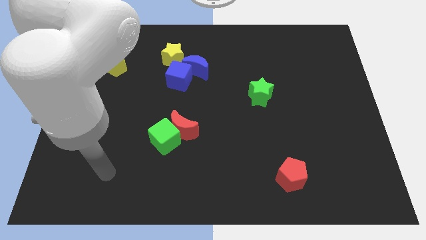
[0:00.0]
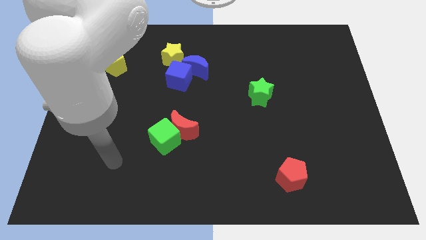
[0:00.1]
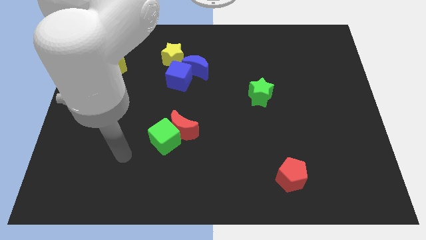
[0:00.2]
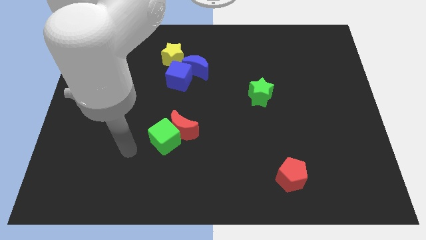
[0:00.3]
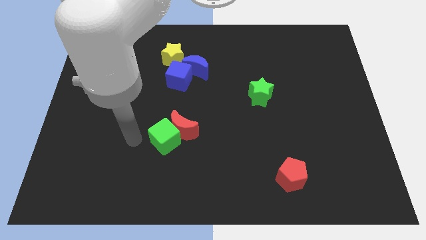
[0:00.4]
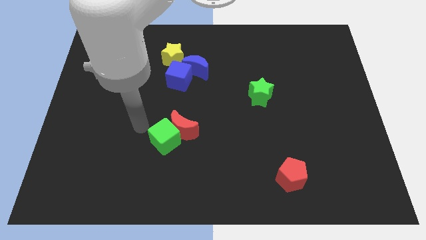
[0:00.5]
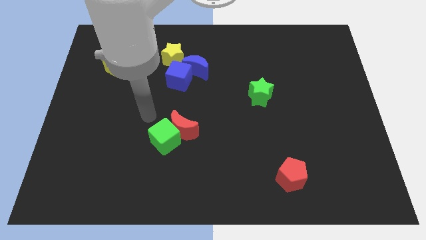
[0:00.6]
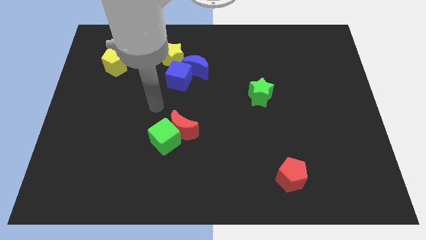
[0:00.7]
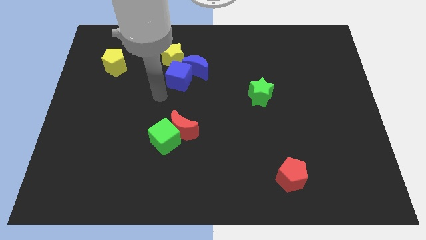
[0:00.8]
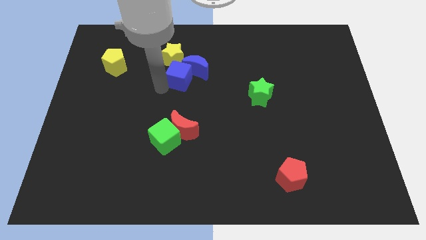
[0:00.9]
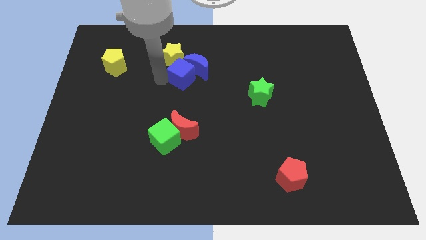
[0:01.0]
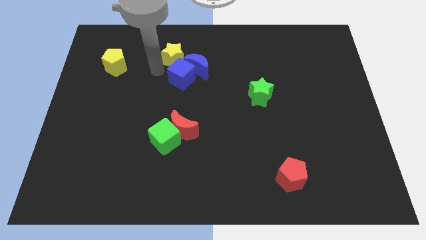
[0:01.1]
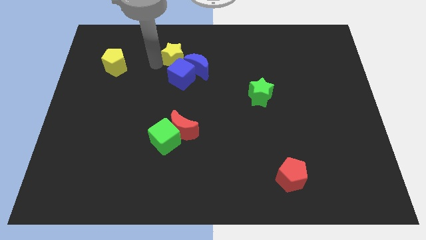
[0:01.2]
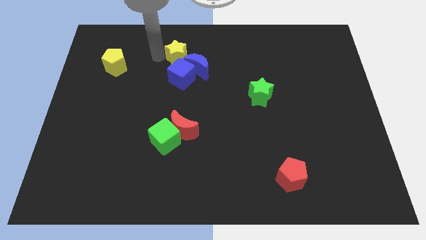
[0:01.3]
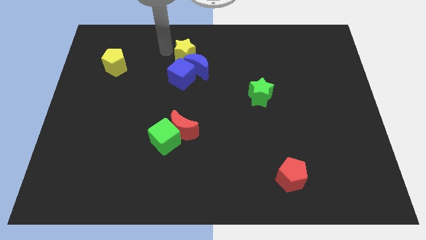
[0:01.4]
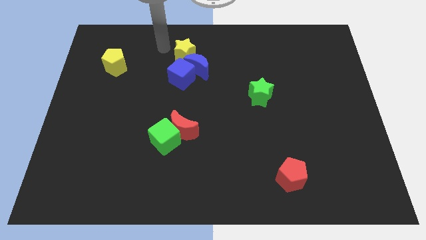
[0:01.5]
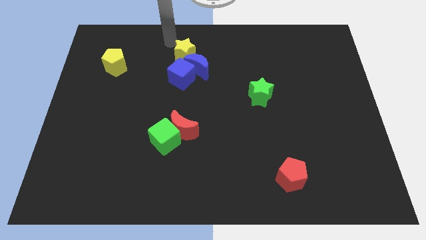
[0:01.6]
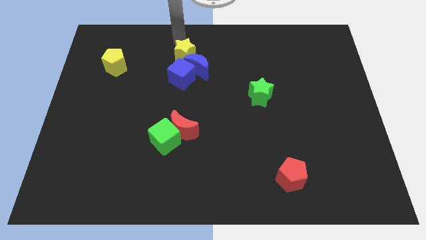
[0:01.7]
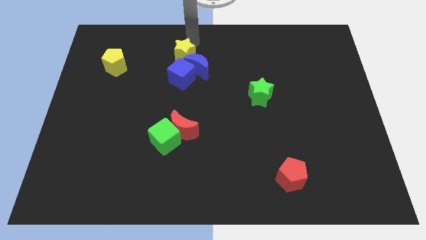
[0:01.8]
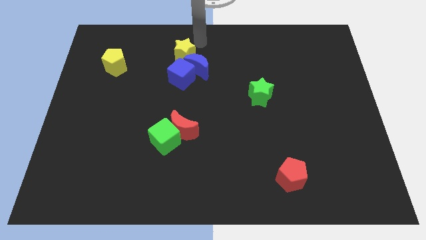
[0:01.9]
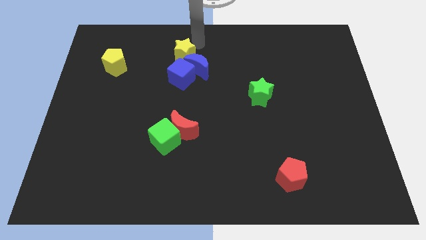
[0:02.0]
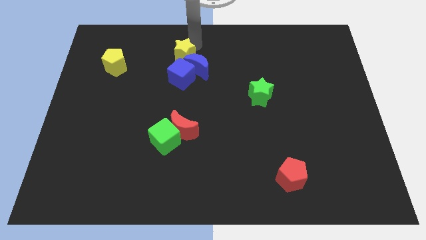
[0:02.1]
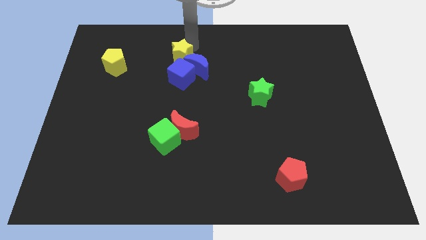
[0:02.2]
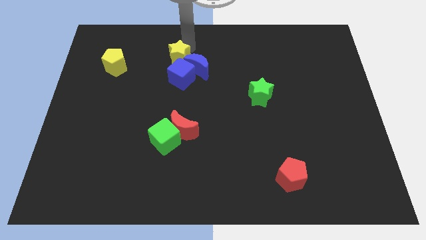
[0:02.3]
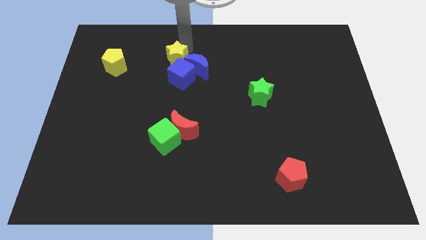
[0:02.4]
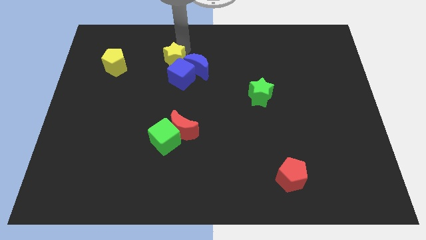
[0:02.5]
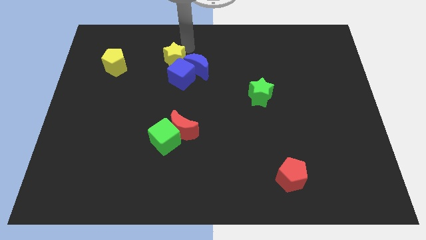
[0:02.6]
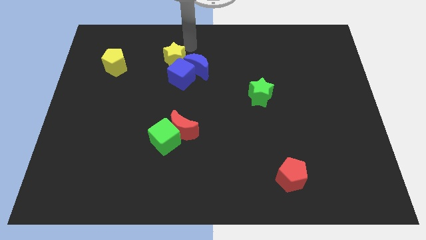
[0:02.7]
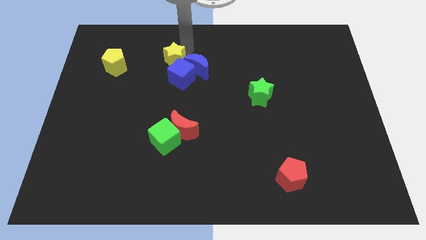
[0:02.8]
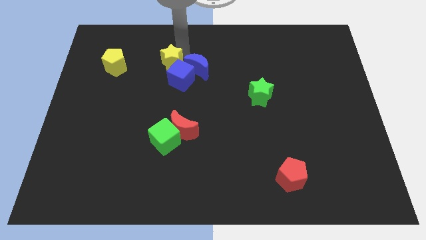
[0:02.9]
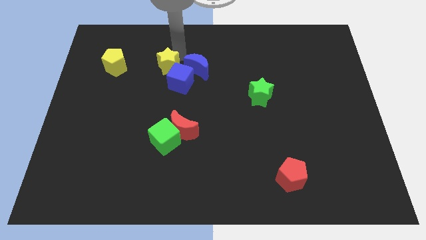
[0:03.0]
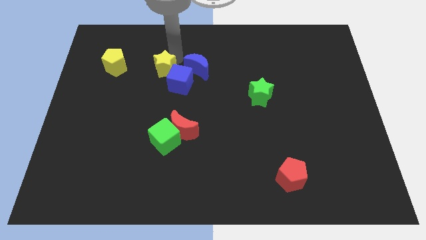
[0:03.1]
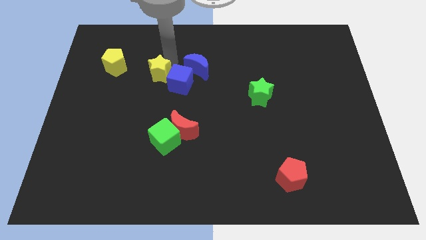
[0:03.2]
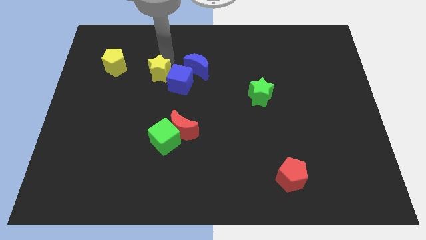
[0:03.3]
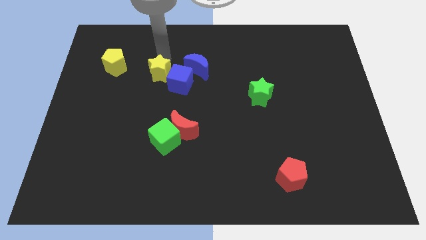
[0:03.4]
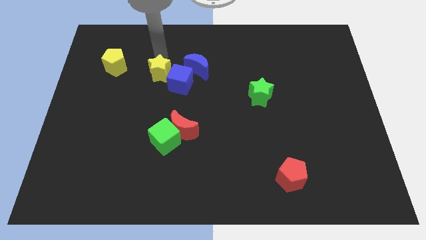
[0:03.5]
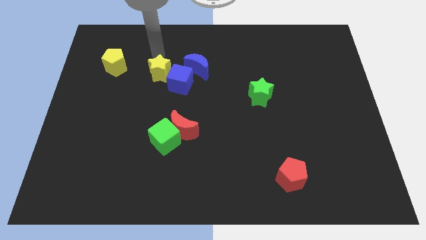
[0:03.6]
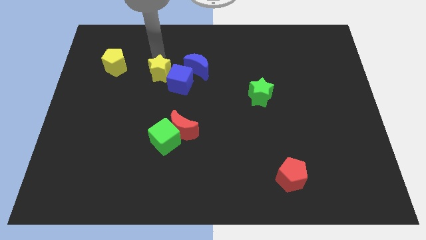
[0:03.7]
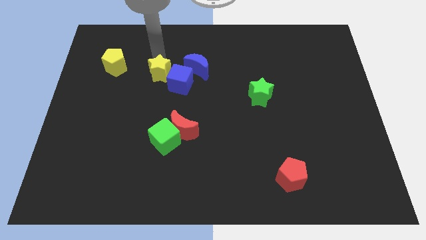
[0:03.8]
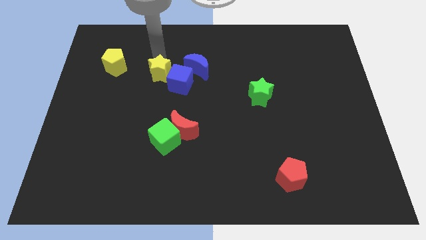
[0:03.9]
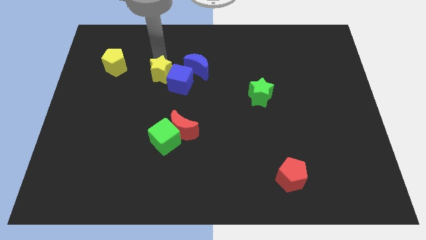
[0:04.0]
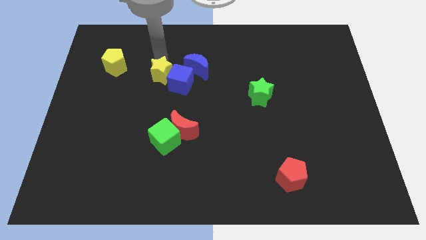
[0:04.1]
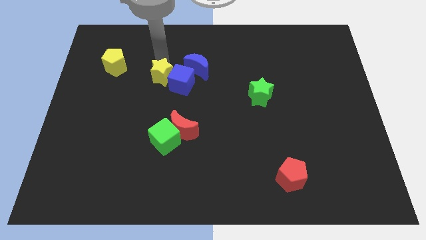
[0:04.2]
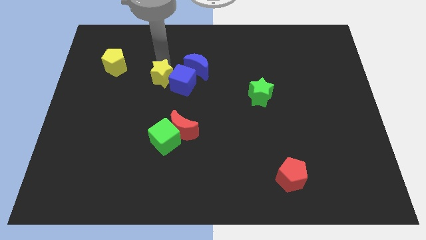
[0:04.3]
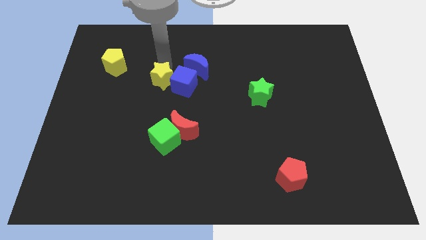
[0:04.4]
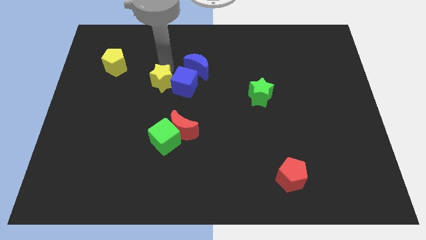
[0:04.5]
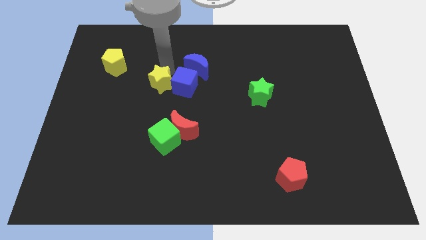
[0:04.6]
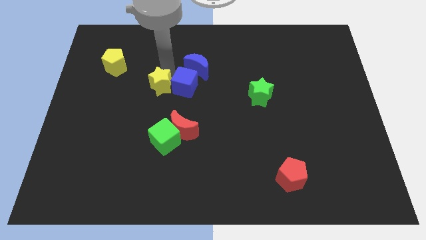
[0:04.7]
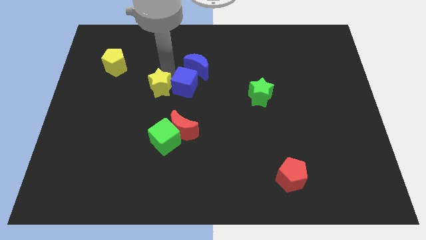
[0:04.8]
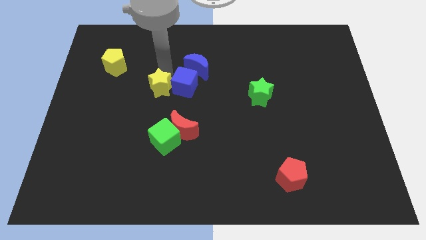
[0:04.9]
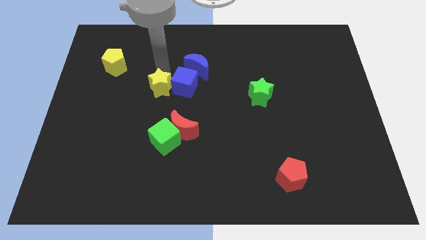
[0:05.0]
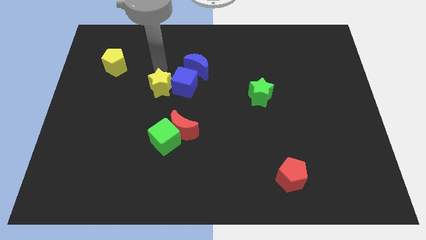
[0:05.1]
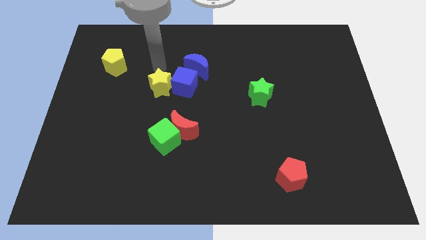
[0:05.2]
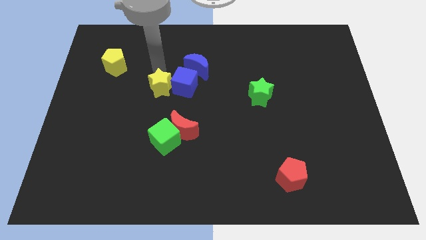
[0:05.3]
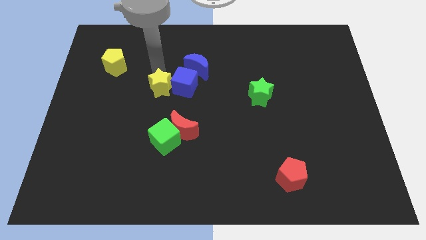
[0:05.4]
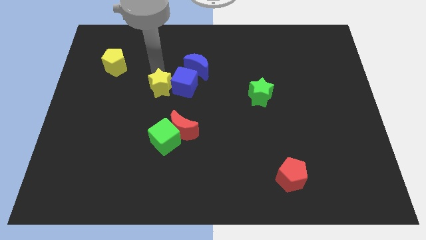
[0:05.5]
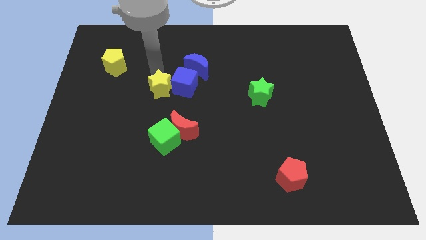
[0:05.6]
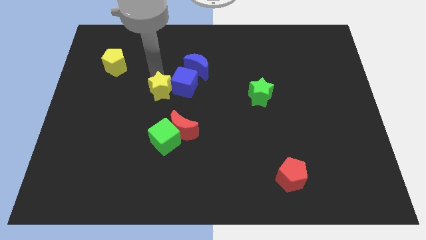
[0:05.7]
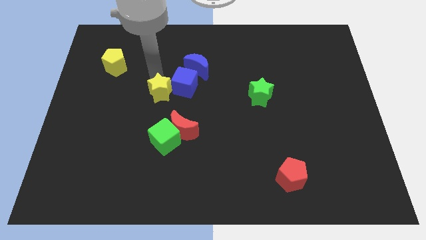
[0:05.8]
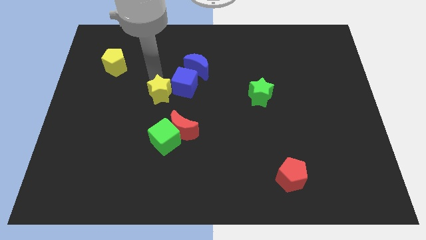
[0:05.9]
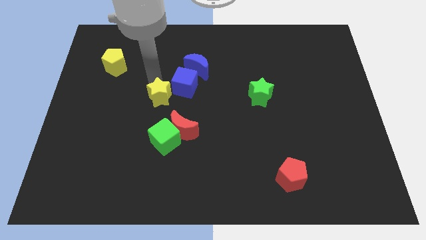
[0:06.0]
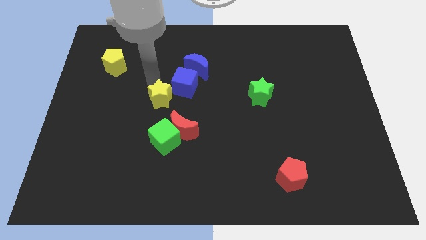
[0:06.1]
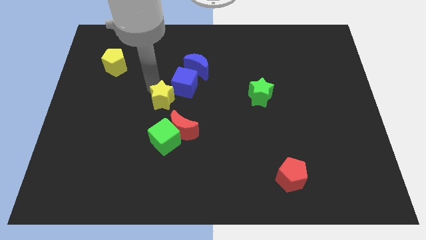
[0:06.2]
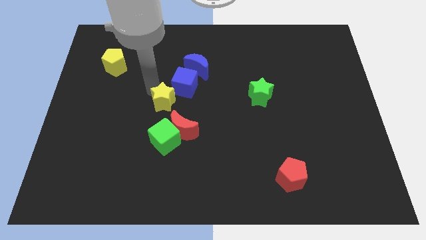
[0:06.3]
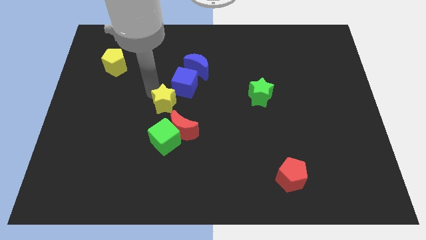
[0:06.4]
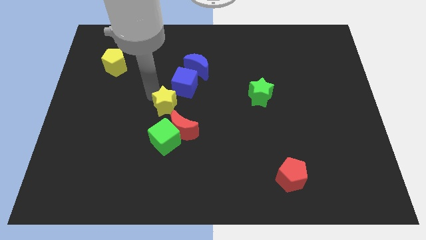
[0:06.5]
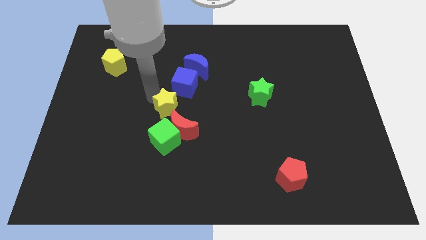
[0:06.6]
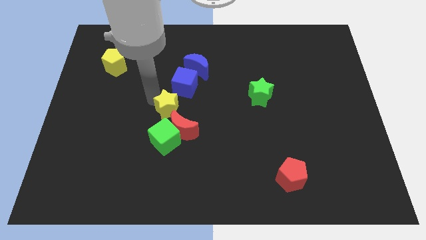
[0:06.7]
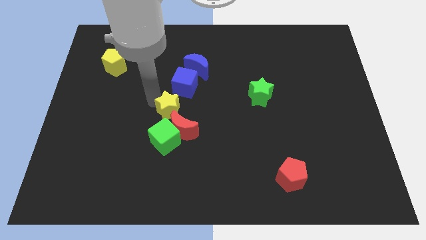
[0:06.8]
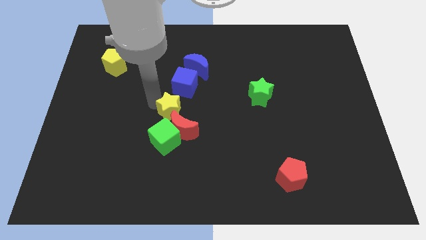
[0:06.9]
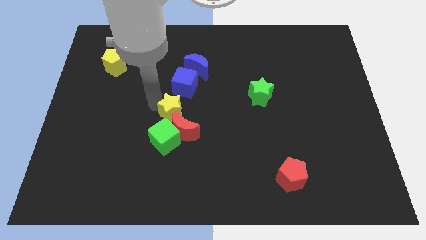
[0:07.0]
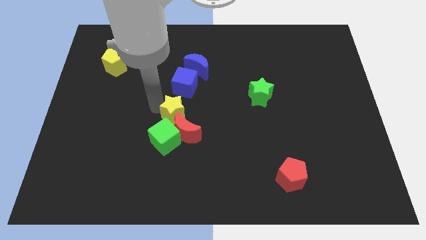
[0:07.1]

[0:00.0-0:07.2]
slide the yellow star to the red moon

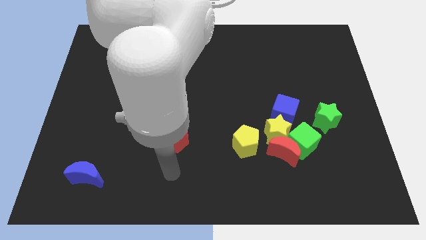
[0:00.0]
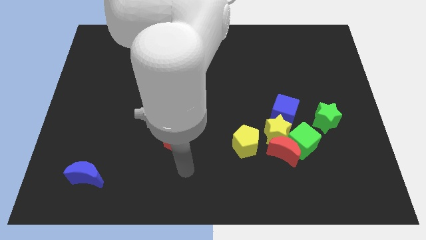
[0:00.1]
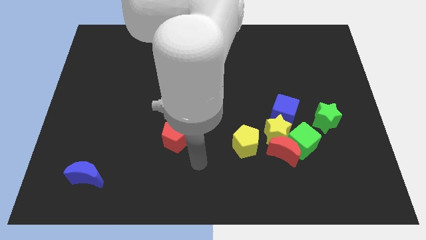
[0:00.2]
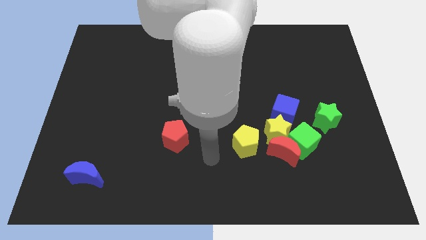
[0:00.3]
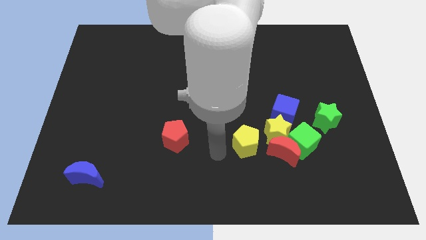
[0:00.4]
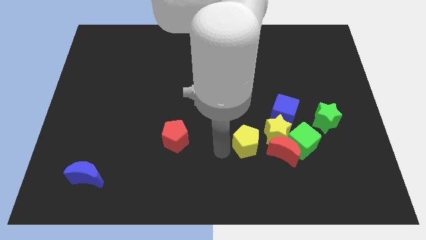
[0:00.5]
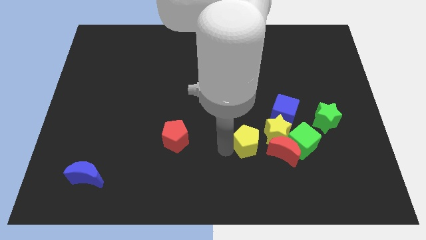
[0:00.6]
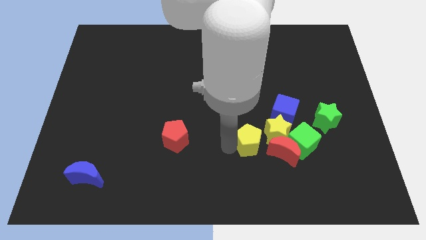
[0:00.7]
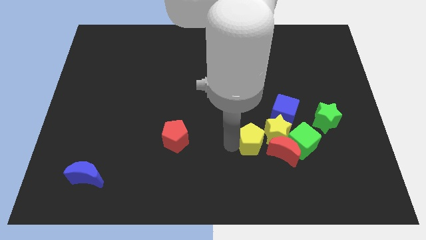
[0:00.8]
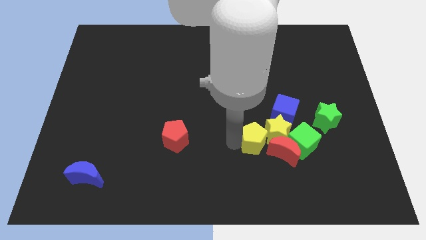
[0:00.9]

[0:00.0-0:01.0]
slide the yellow pentagon towards the yellow star

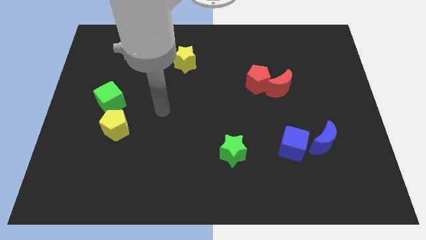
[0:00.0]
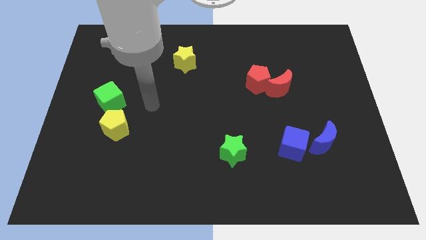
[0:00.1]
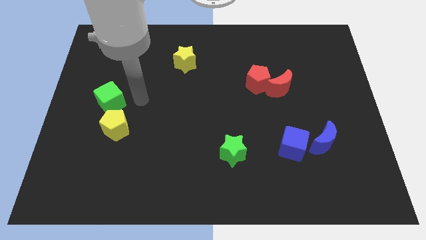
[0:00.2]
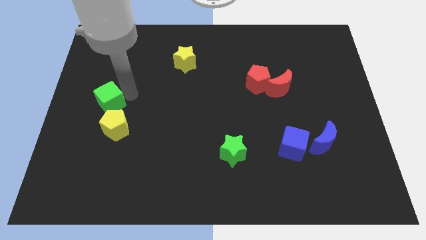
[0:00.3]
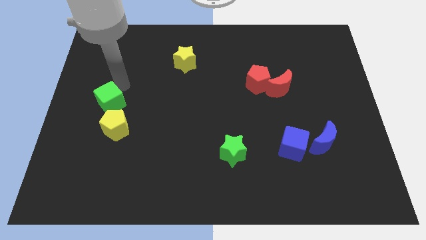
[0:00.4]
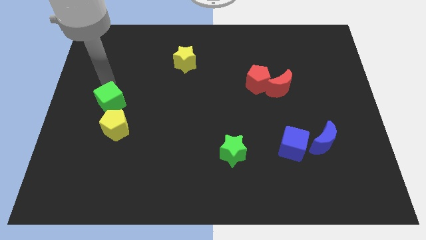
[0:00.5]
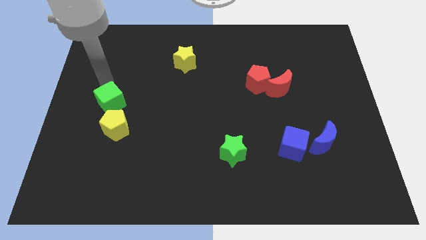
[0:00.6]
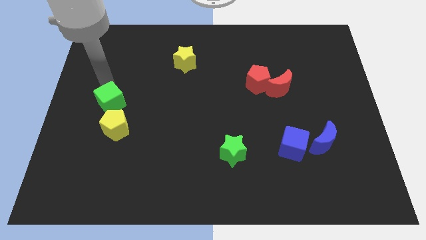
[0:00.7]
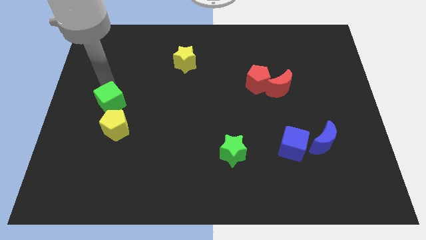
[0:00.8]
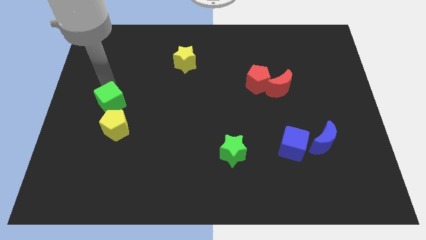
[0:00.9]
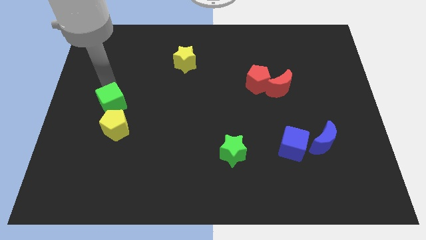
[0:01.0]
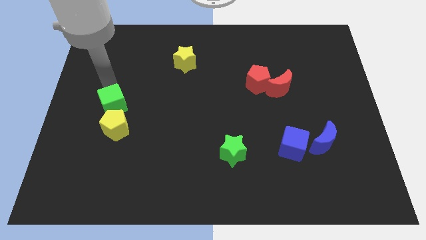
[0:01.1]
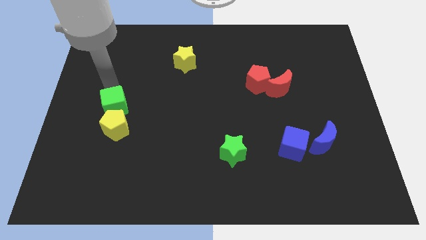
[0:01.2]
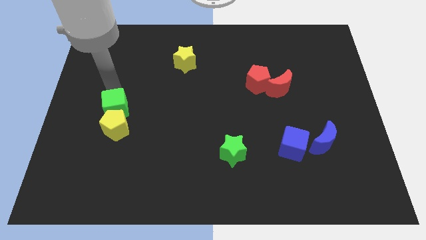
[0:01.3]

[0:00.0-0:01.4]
put the green cube towards the yellow pentagon
